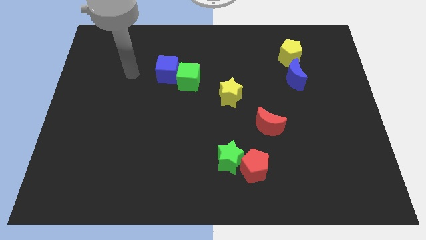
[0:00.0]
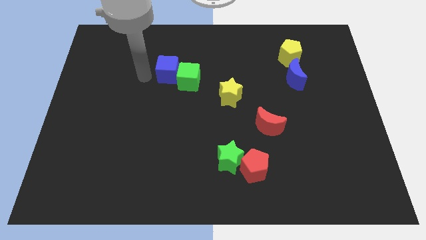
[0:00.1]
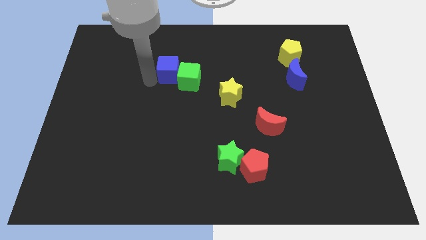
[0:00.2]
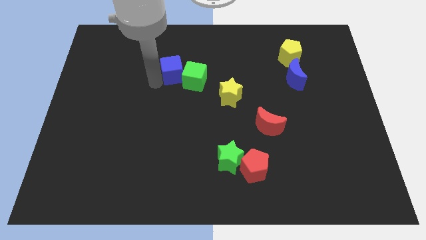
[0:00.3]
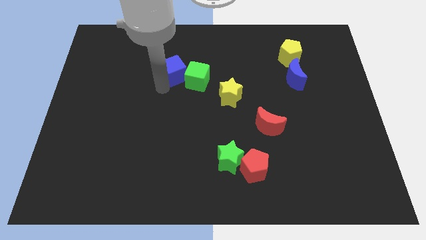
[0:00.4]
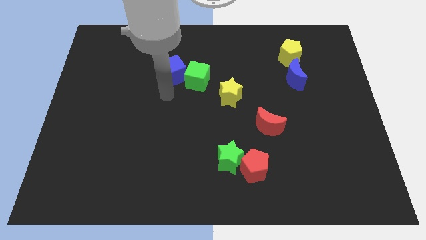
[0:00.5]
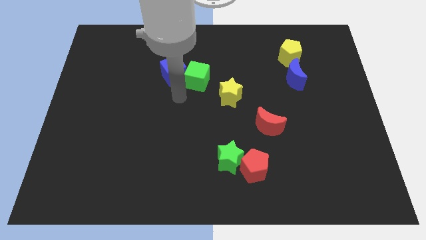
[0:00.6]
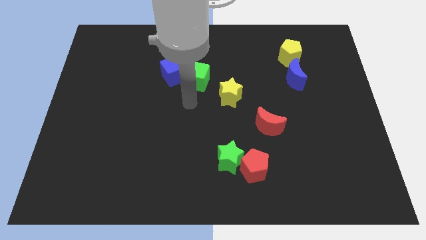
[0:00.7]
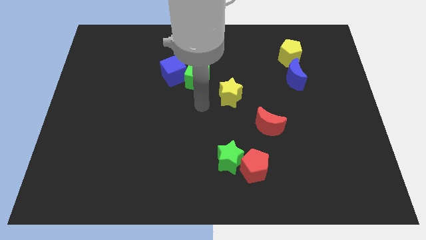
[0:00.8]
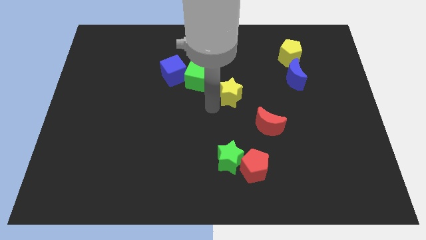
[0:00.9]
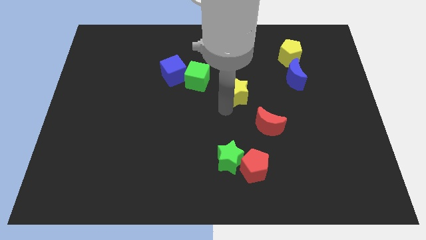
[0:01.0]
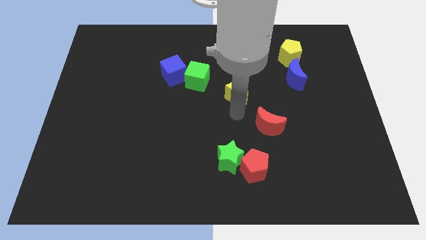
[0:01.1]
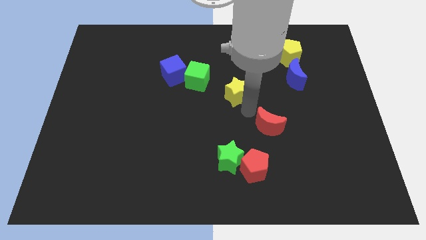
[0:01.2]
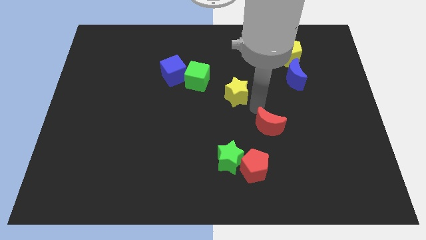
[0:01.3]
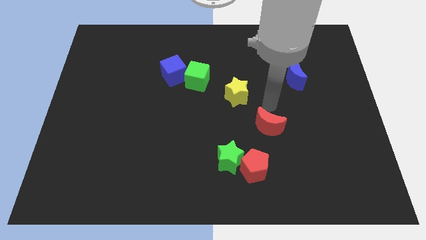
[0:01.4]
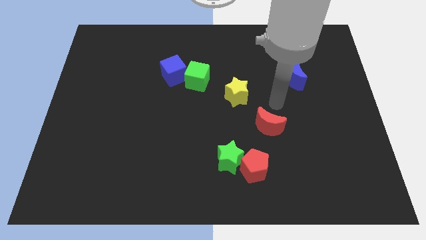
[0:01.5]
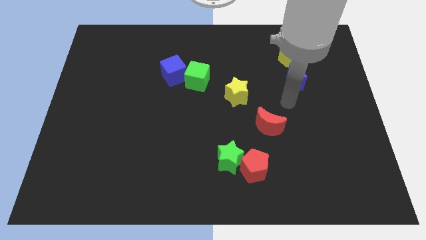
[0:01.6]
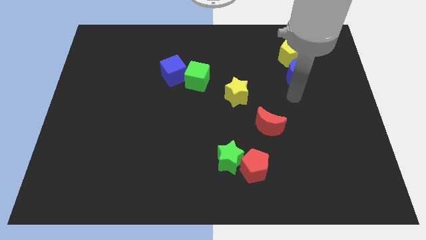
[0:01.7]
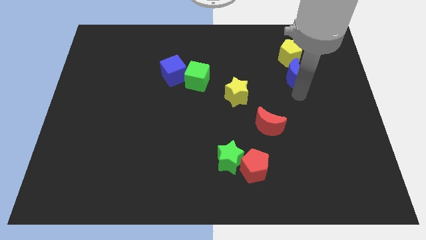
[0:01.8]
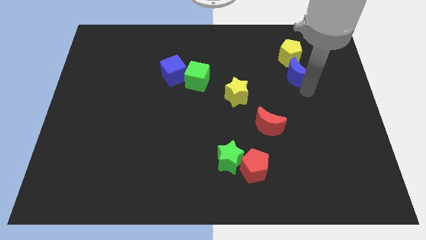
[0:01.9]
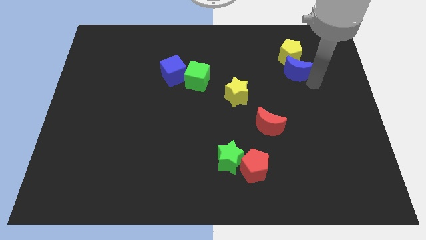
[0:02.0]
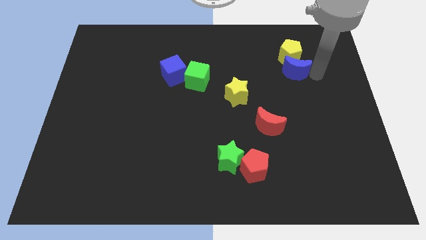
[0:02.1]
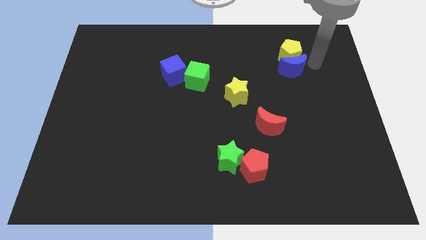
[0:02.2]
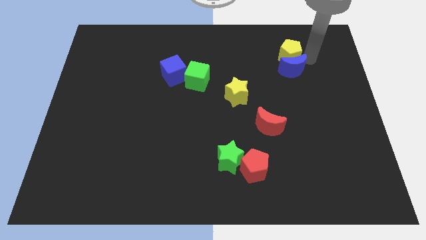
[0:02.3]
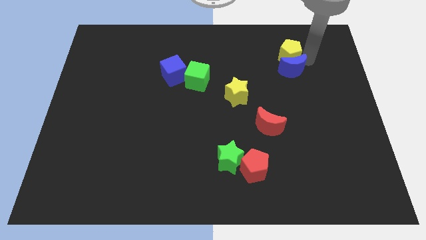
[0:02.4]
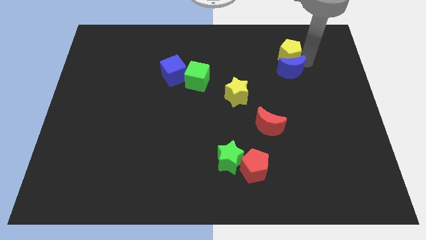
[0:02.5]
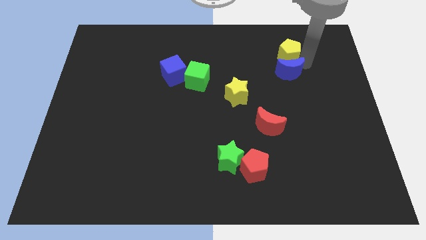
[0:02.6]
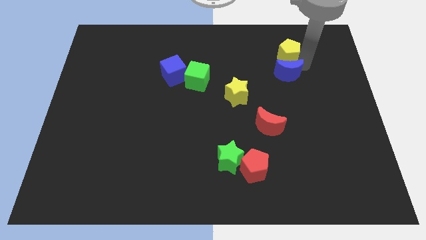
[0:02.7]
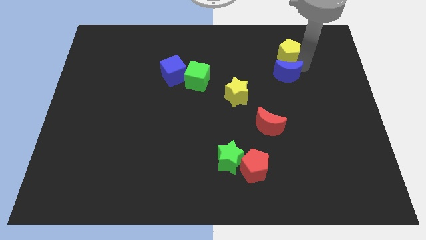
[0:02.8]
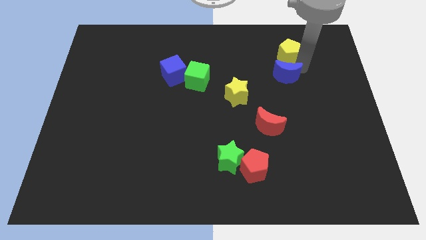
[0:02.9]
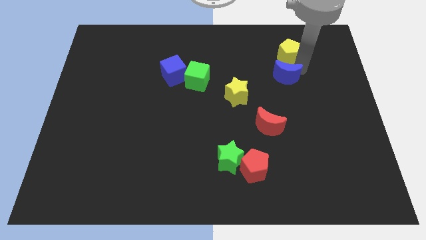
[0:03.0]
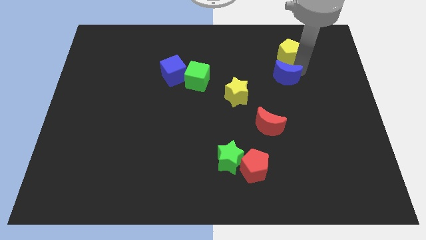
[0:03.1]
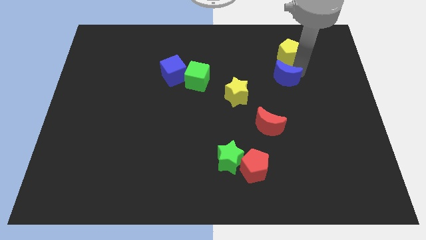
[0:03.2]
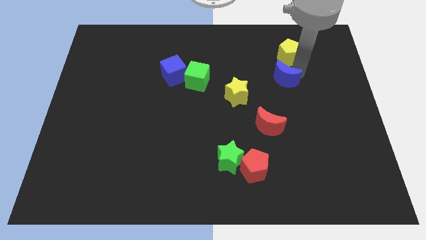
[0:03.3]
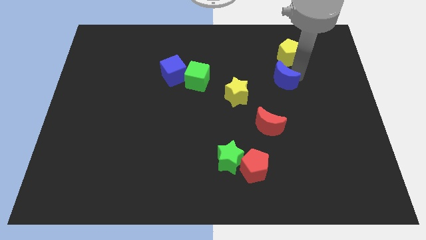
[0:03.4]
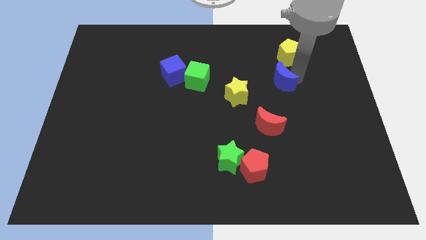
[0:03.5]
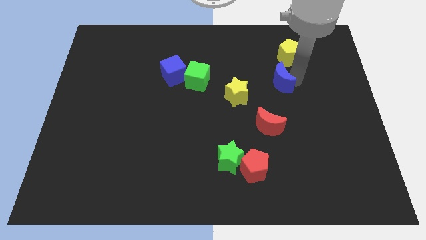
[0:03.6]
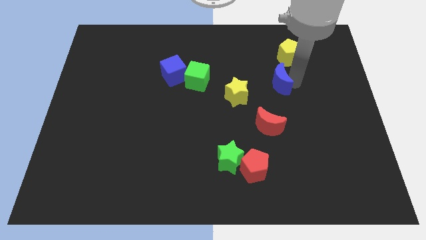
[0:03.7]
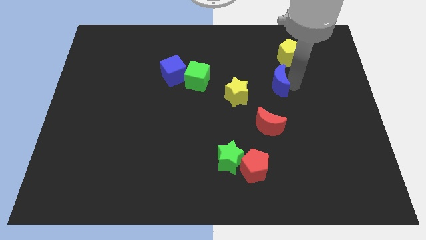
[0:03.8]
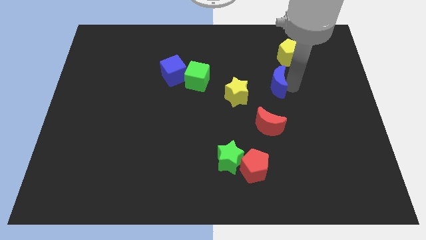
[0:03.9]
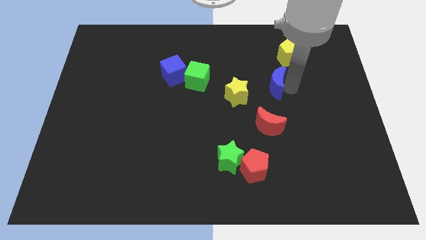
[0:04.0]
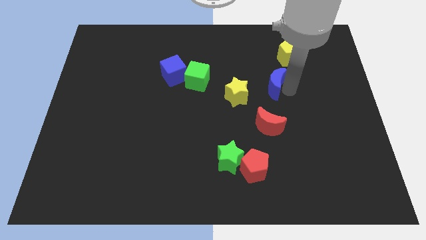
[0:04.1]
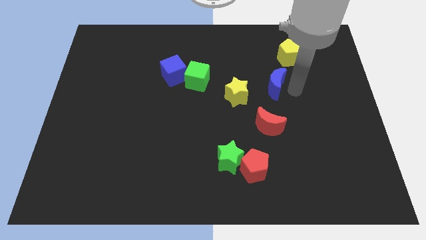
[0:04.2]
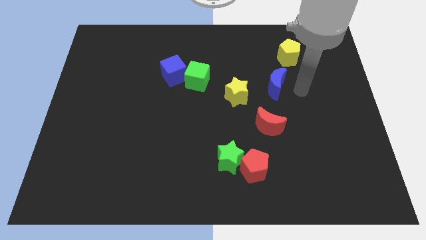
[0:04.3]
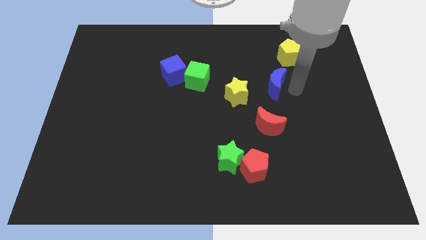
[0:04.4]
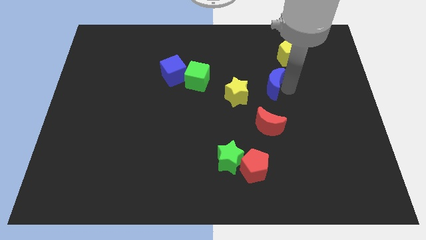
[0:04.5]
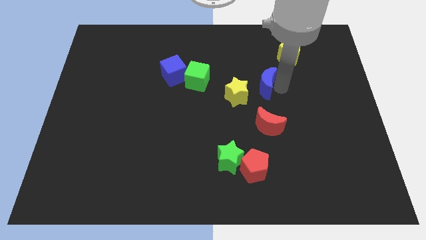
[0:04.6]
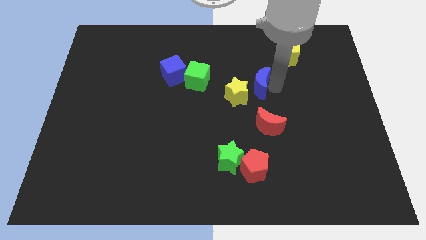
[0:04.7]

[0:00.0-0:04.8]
move the blue moon to the middle of the board

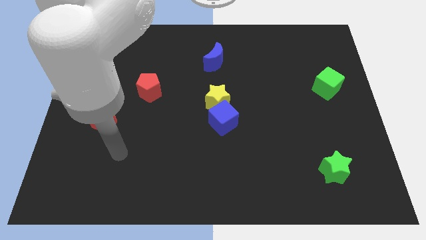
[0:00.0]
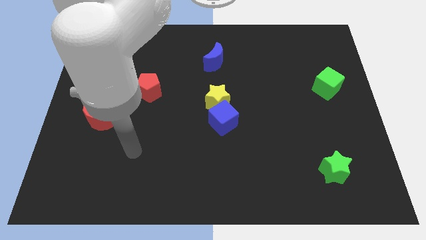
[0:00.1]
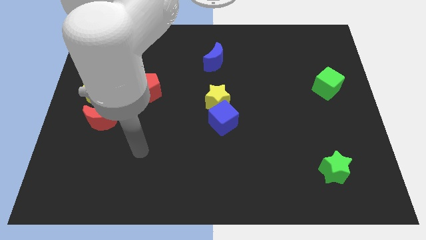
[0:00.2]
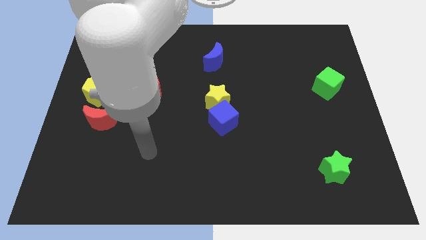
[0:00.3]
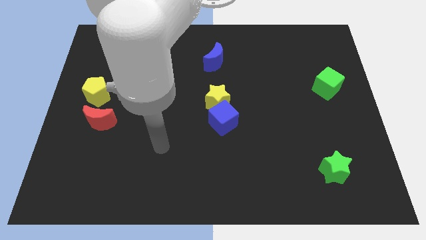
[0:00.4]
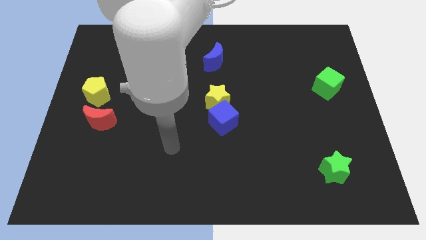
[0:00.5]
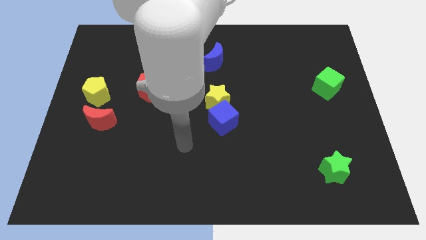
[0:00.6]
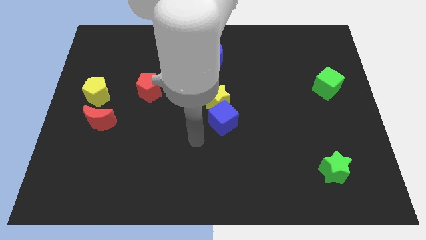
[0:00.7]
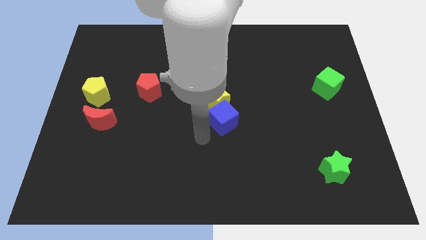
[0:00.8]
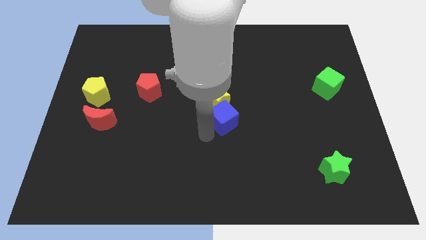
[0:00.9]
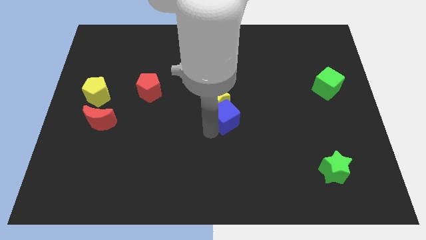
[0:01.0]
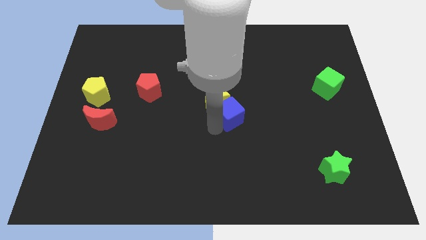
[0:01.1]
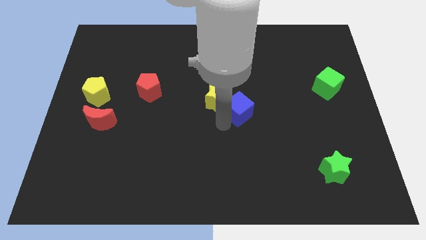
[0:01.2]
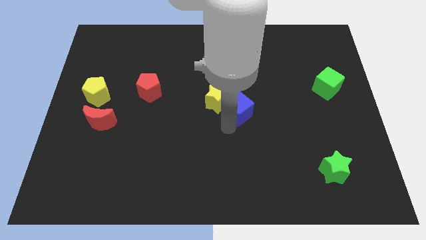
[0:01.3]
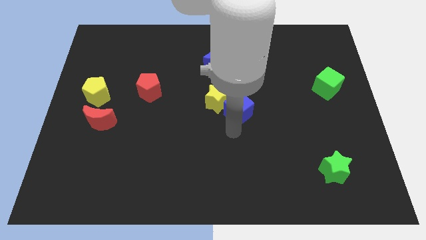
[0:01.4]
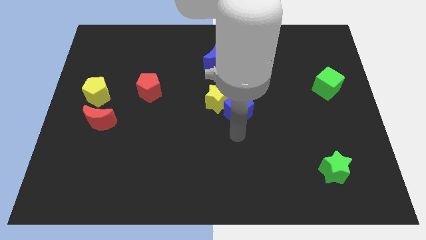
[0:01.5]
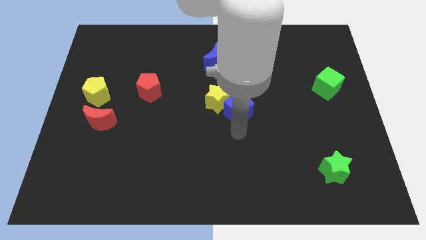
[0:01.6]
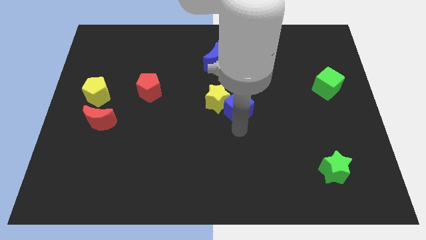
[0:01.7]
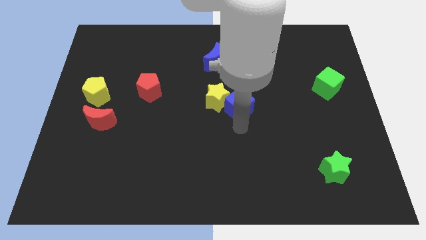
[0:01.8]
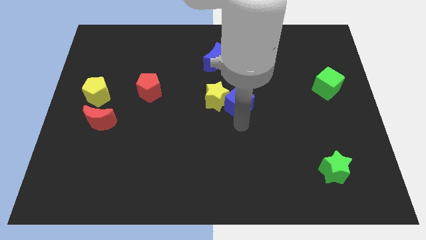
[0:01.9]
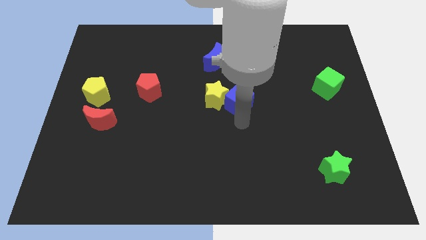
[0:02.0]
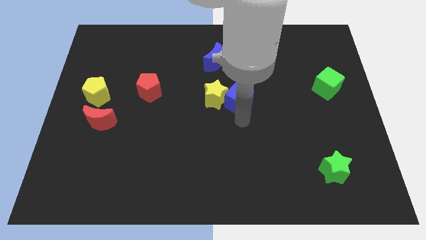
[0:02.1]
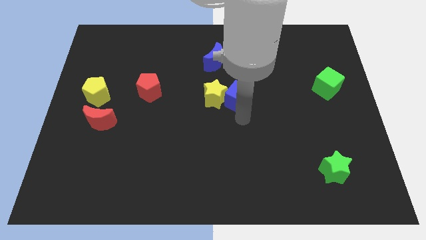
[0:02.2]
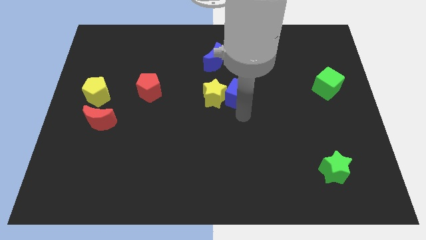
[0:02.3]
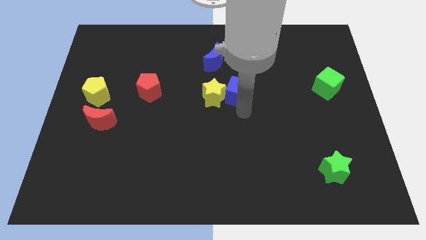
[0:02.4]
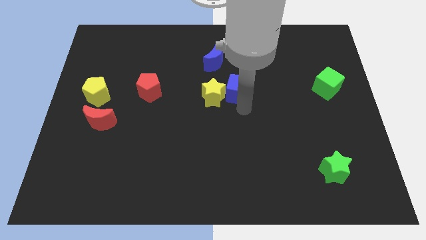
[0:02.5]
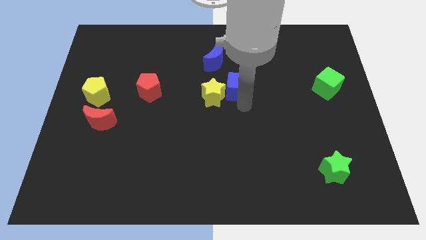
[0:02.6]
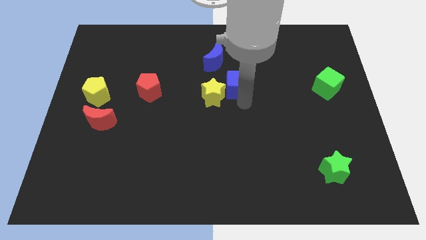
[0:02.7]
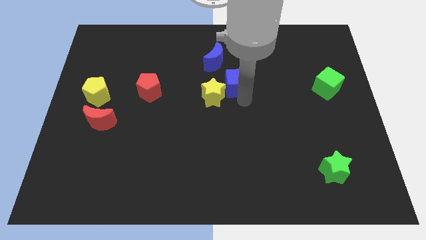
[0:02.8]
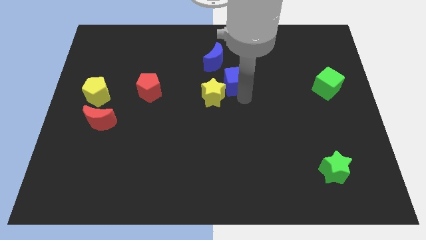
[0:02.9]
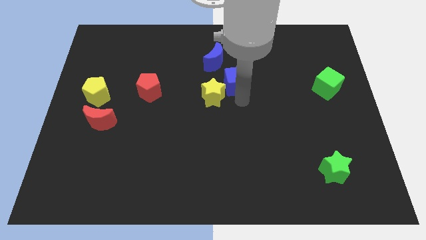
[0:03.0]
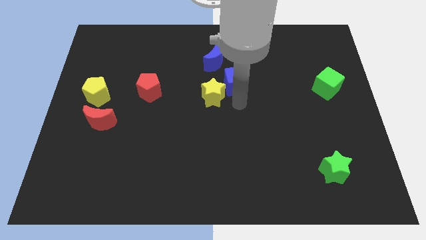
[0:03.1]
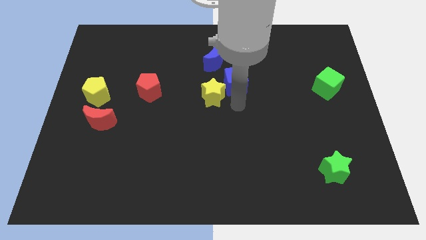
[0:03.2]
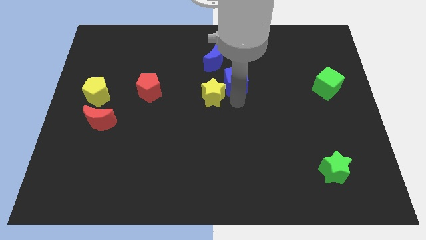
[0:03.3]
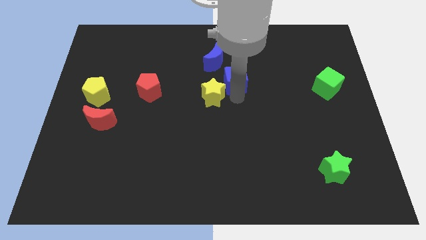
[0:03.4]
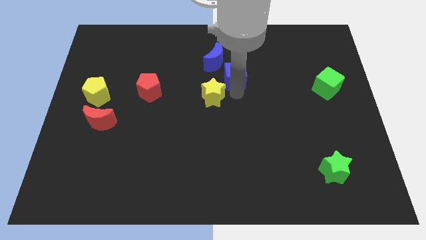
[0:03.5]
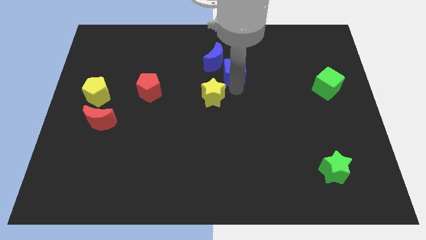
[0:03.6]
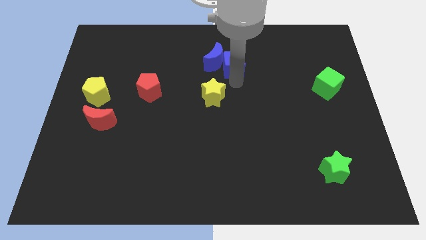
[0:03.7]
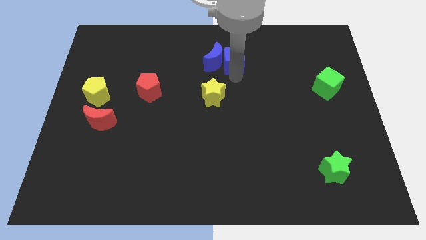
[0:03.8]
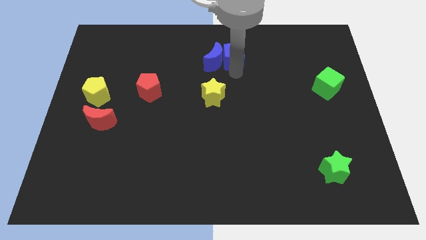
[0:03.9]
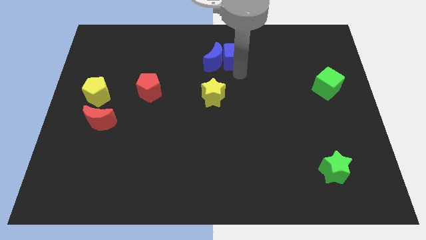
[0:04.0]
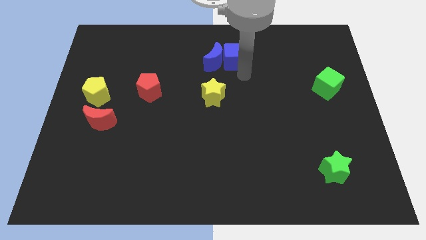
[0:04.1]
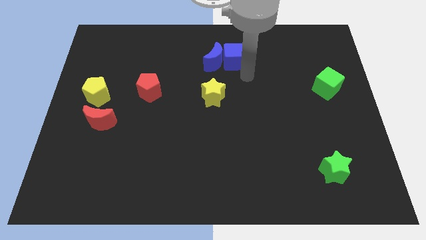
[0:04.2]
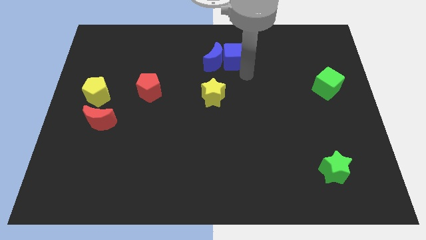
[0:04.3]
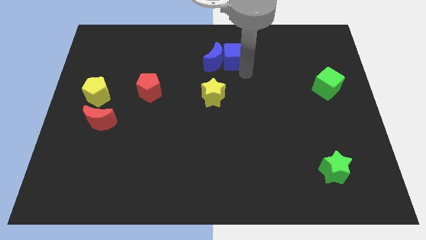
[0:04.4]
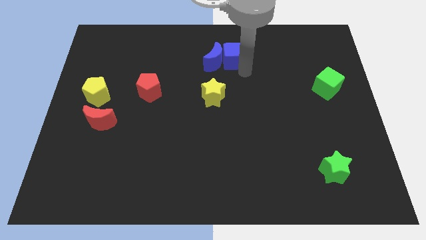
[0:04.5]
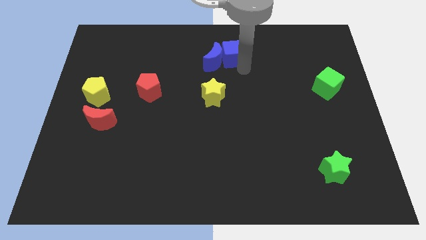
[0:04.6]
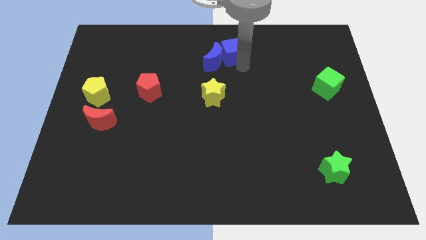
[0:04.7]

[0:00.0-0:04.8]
put the blue cube to the top
